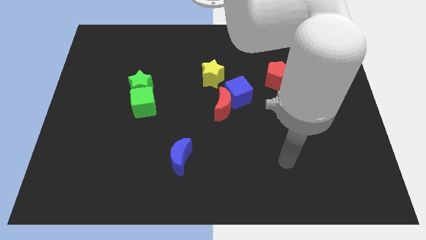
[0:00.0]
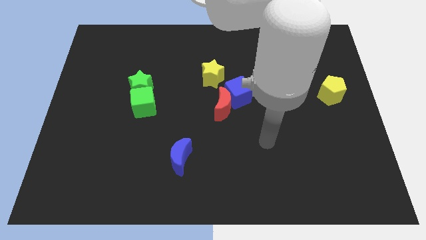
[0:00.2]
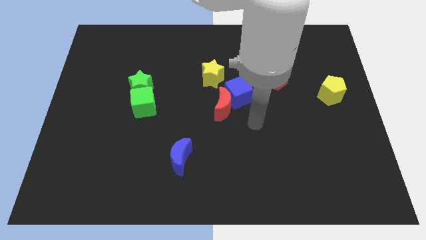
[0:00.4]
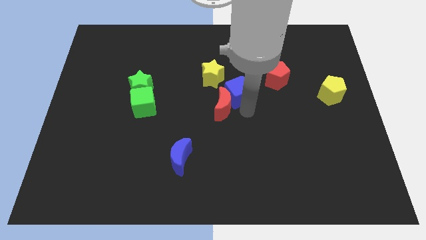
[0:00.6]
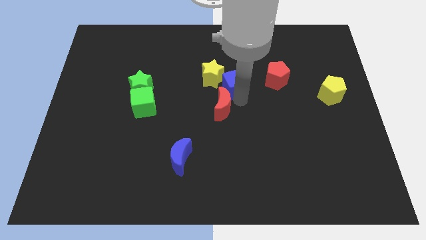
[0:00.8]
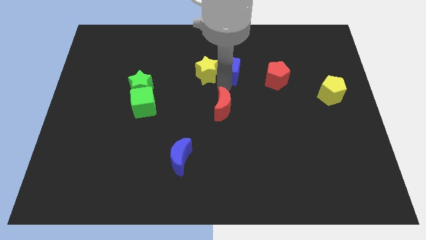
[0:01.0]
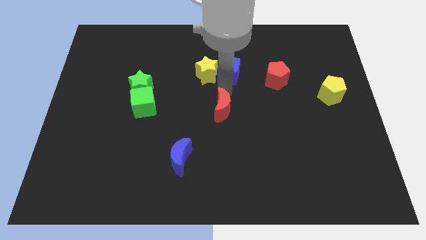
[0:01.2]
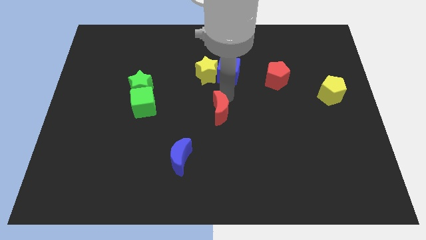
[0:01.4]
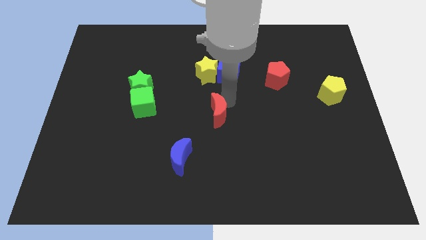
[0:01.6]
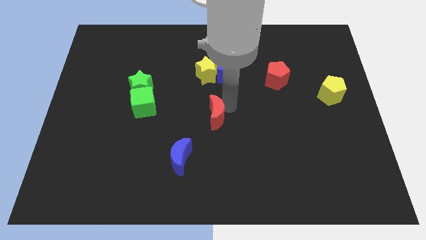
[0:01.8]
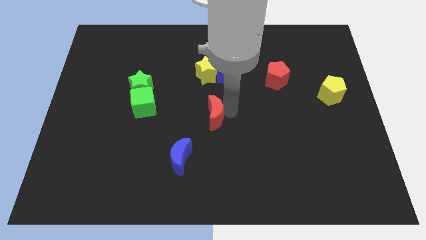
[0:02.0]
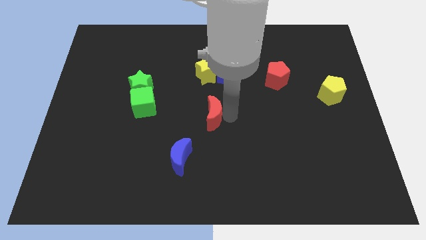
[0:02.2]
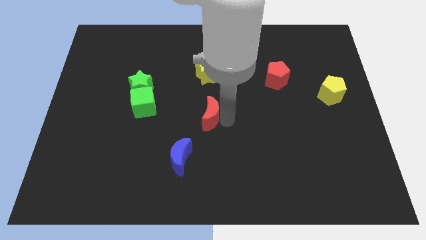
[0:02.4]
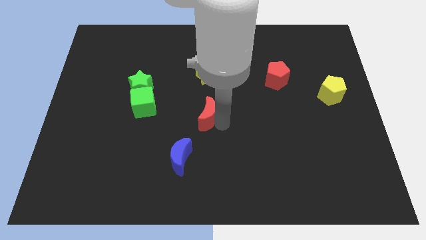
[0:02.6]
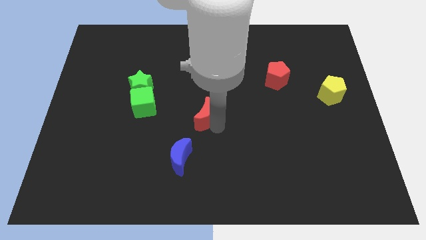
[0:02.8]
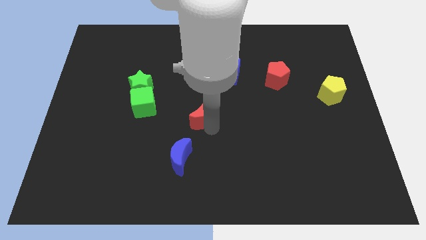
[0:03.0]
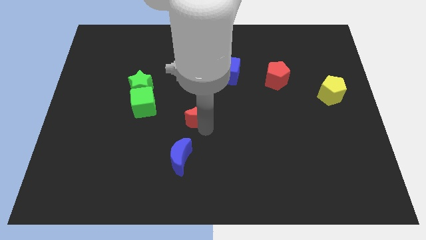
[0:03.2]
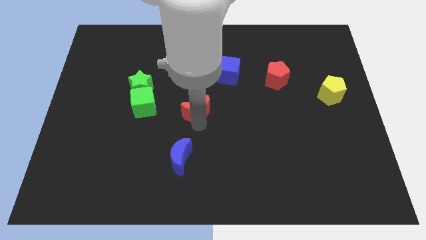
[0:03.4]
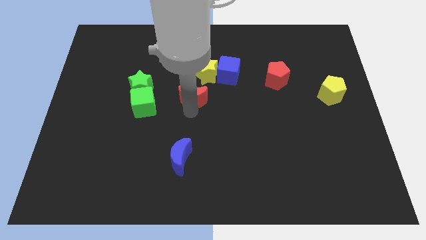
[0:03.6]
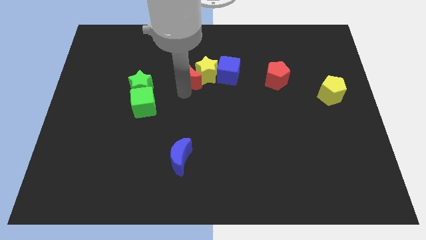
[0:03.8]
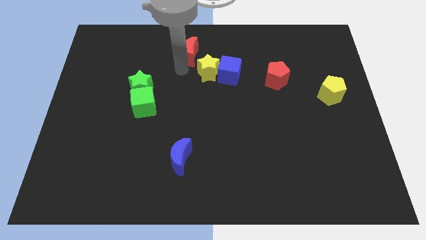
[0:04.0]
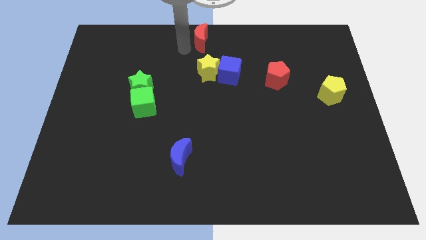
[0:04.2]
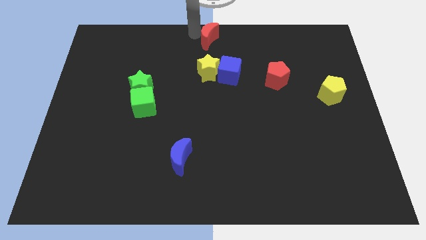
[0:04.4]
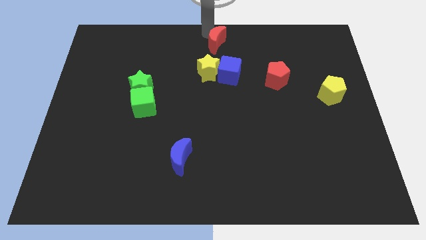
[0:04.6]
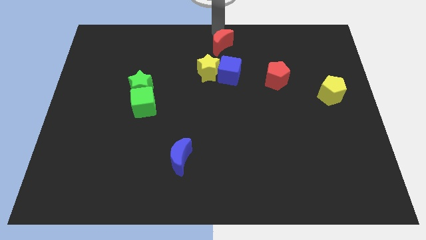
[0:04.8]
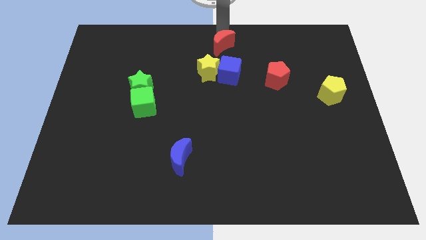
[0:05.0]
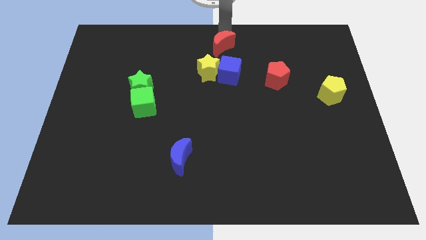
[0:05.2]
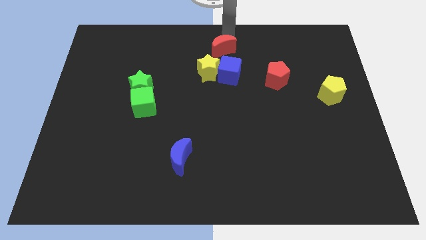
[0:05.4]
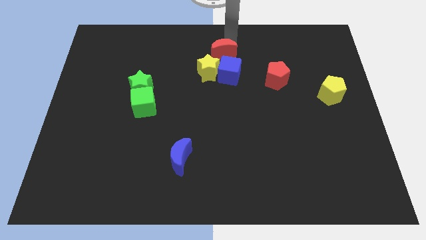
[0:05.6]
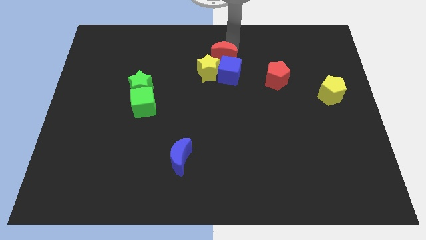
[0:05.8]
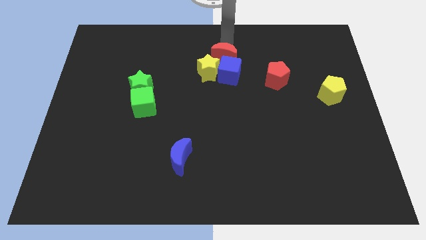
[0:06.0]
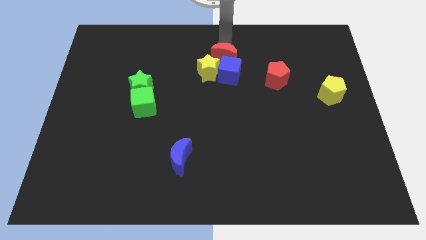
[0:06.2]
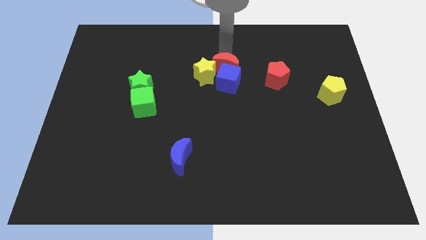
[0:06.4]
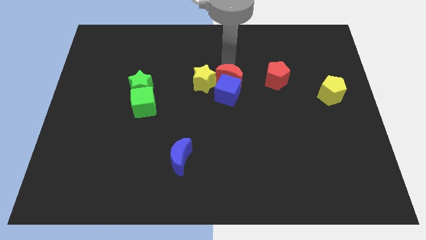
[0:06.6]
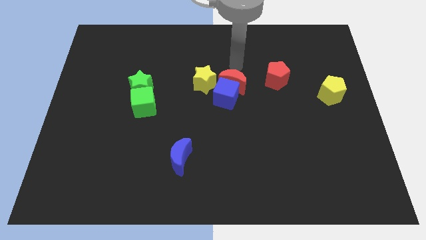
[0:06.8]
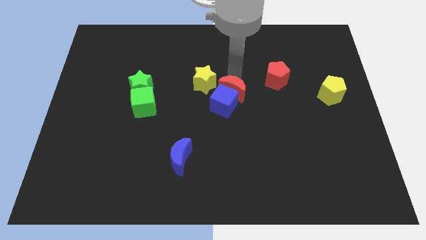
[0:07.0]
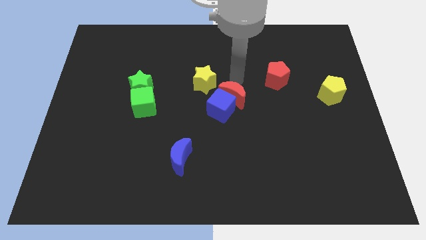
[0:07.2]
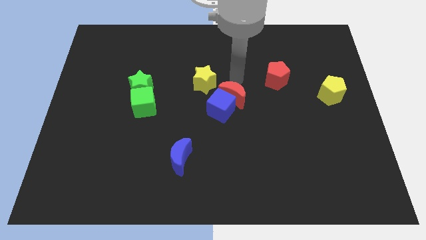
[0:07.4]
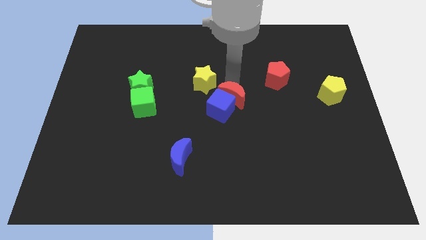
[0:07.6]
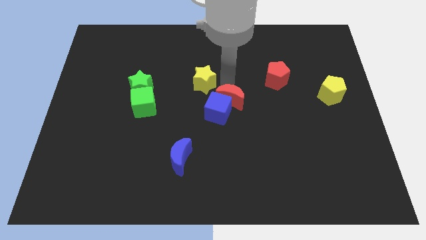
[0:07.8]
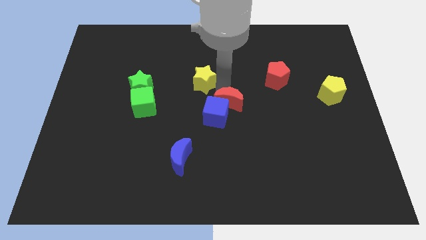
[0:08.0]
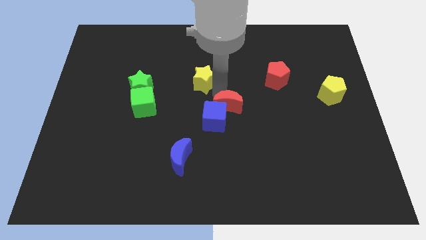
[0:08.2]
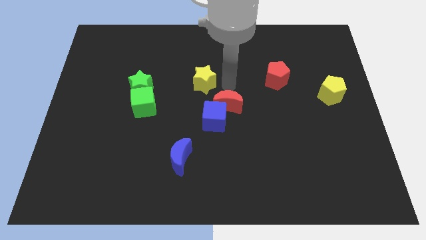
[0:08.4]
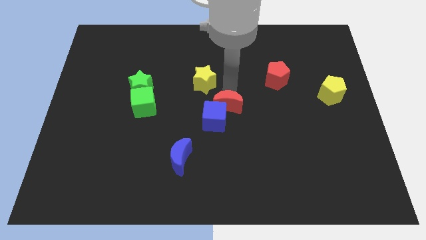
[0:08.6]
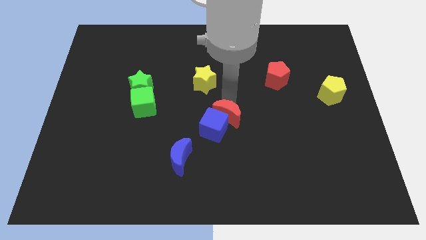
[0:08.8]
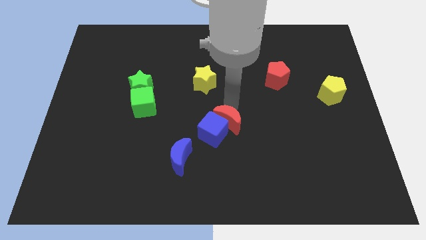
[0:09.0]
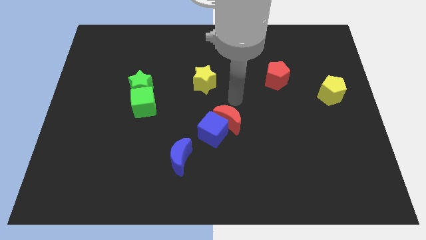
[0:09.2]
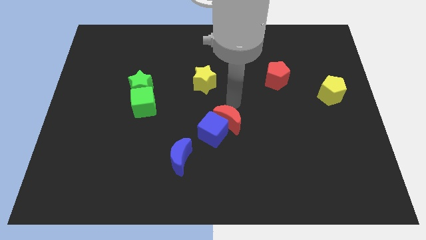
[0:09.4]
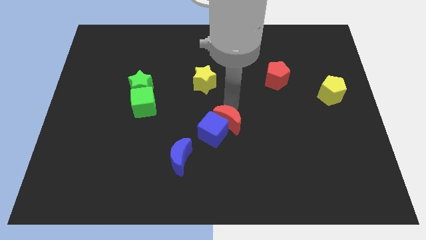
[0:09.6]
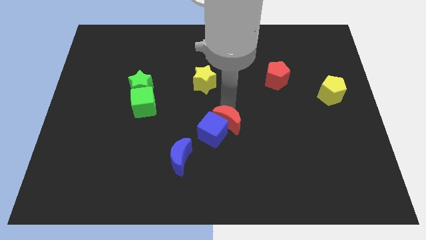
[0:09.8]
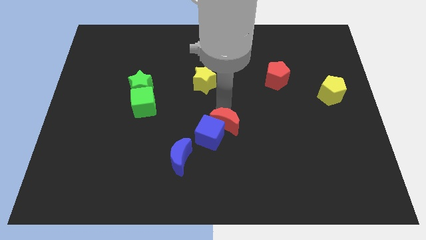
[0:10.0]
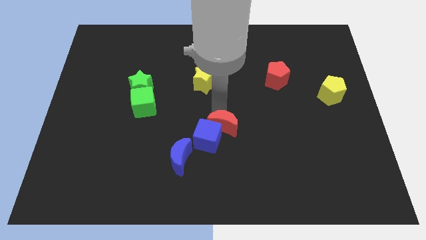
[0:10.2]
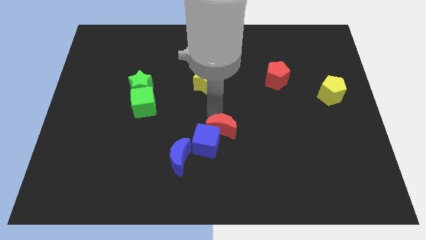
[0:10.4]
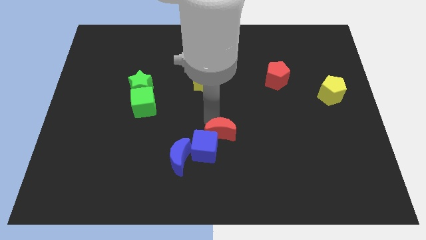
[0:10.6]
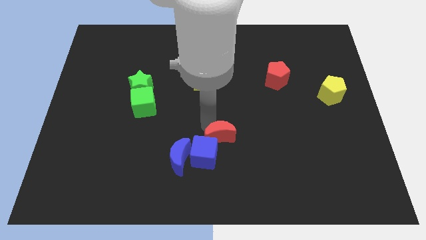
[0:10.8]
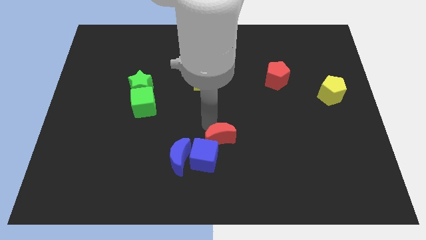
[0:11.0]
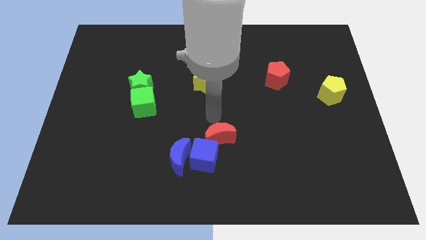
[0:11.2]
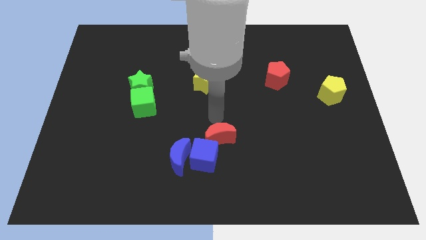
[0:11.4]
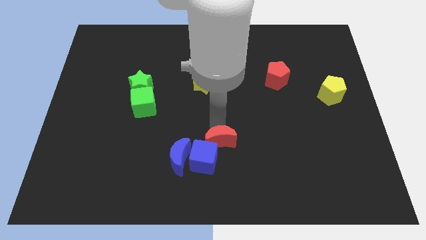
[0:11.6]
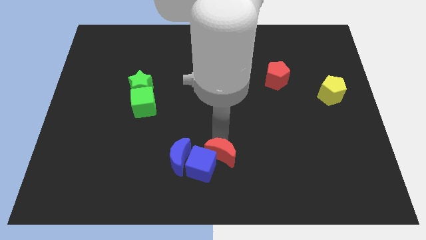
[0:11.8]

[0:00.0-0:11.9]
slide the red moon to the bottom side

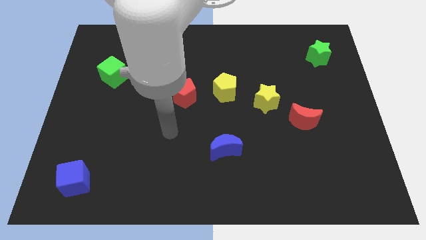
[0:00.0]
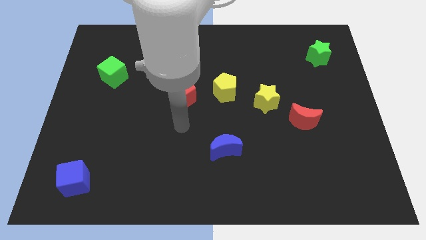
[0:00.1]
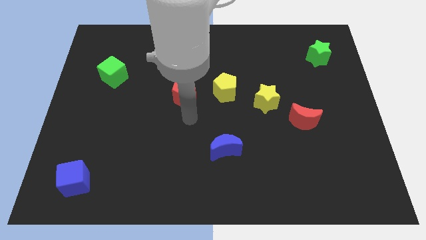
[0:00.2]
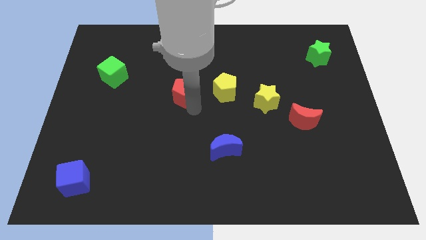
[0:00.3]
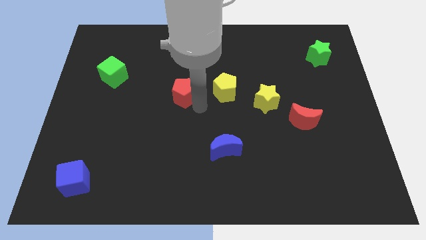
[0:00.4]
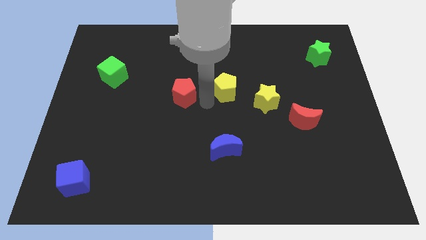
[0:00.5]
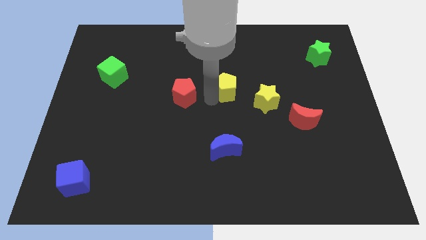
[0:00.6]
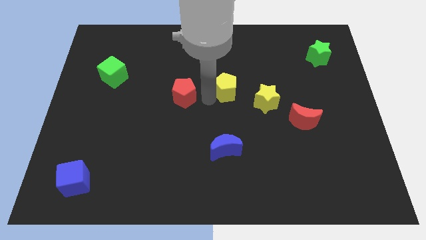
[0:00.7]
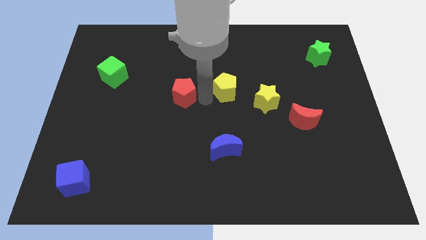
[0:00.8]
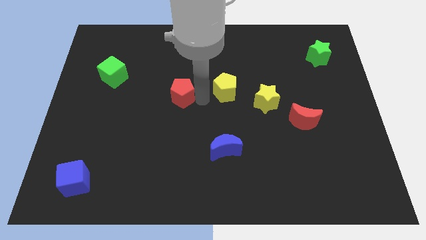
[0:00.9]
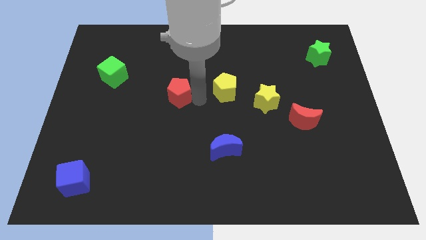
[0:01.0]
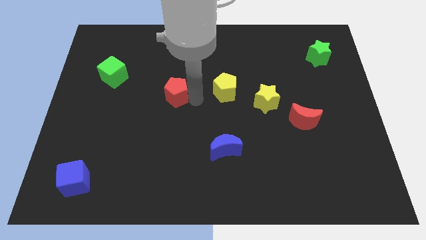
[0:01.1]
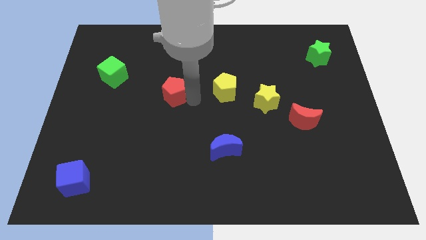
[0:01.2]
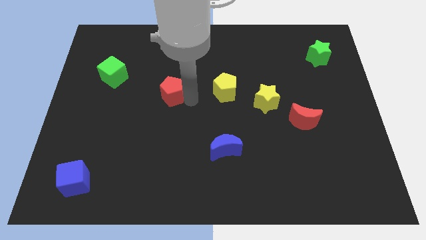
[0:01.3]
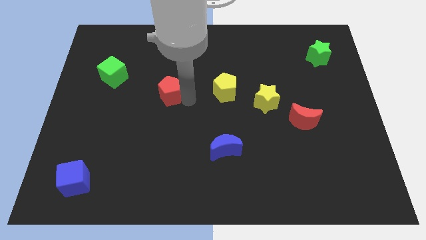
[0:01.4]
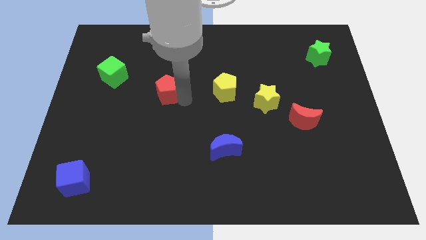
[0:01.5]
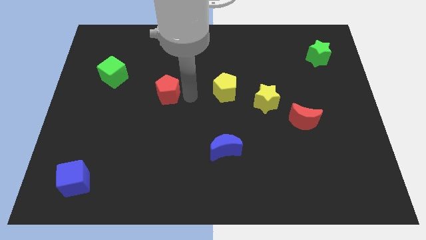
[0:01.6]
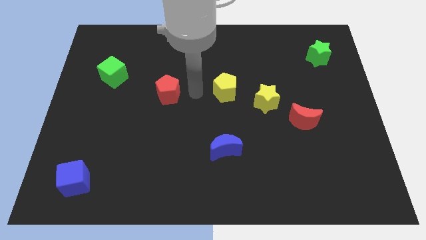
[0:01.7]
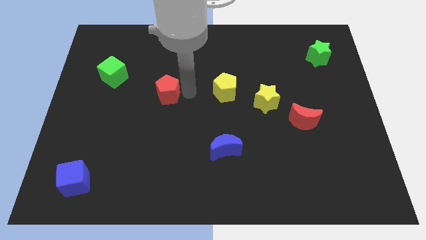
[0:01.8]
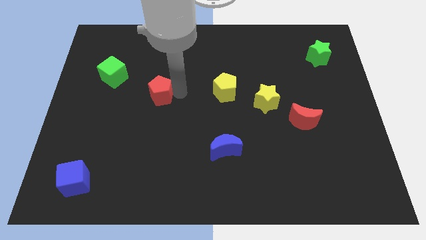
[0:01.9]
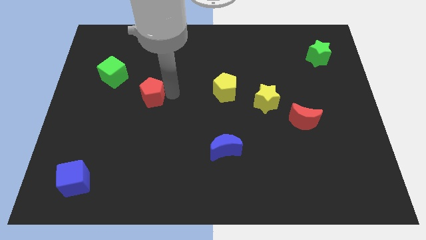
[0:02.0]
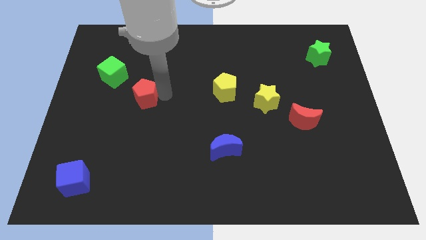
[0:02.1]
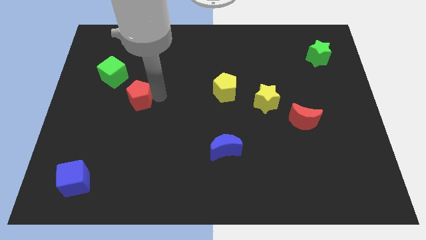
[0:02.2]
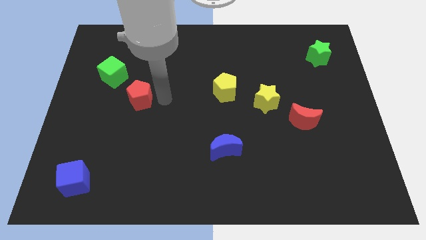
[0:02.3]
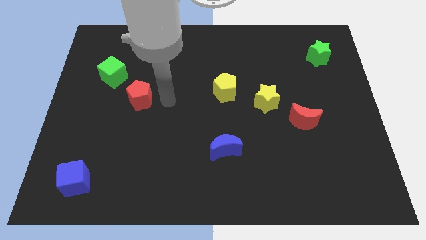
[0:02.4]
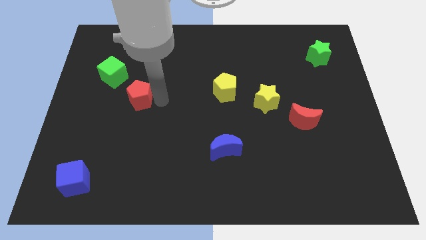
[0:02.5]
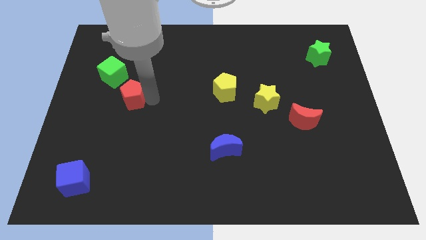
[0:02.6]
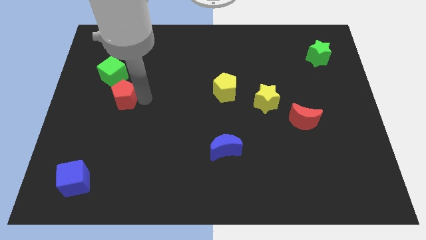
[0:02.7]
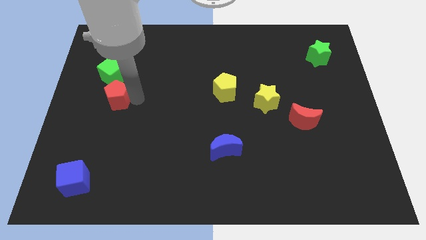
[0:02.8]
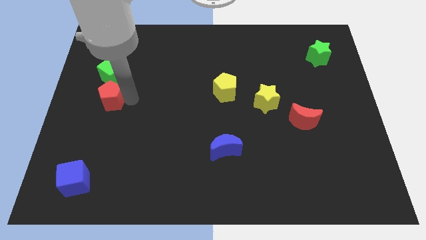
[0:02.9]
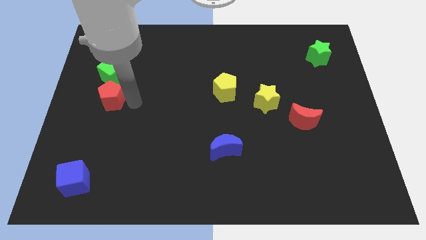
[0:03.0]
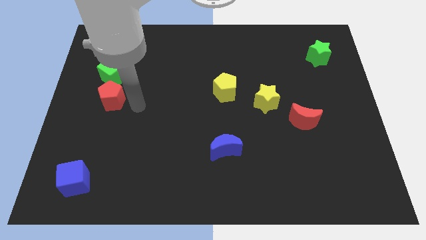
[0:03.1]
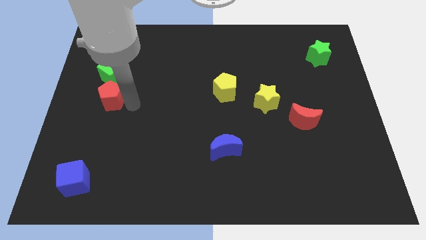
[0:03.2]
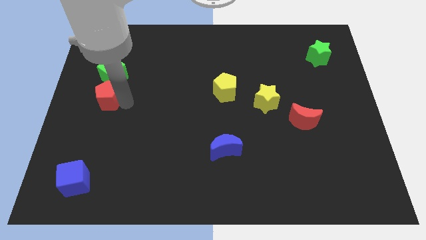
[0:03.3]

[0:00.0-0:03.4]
put the red pentagon to the left side
